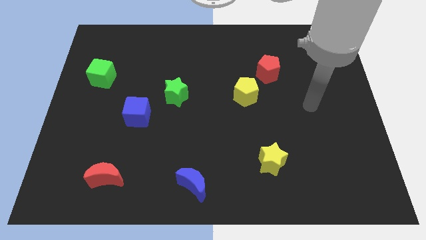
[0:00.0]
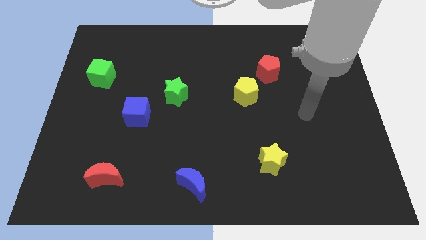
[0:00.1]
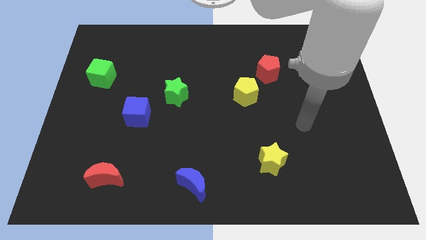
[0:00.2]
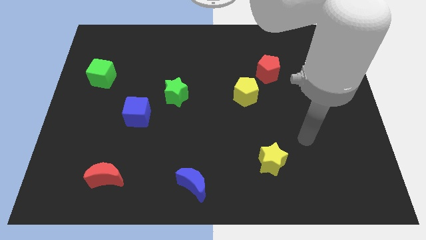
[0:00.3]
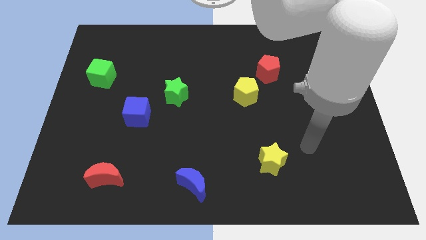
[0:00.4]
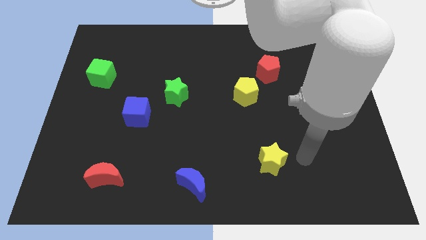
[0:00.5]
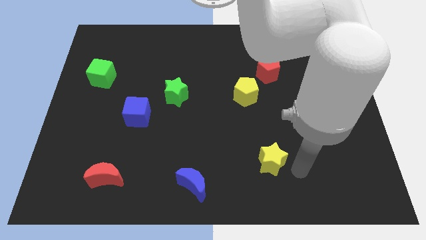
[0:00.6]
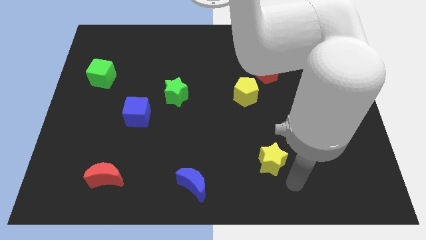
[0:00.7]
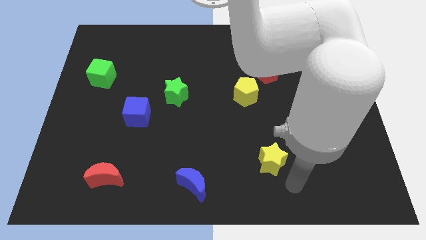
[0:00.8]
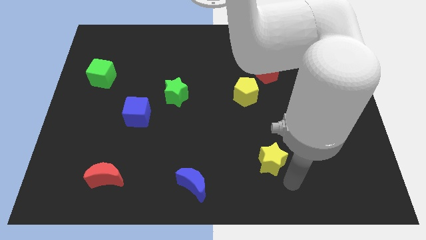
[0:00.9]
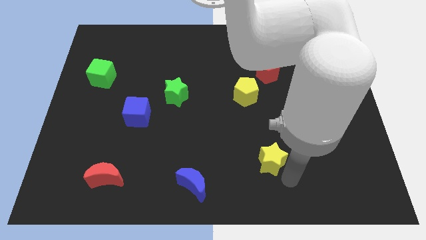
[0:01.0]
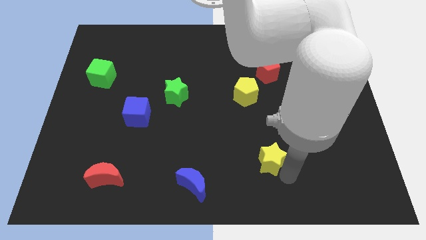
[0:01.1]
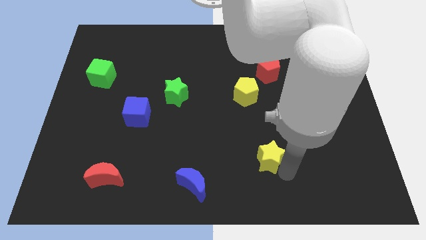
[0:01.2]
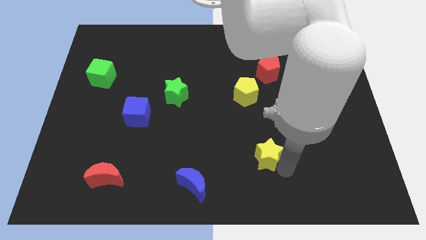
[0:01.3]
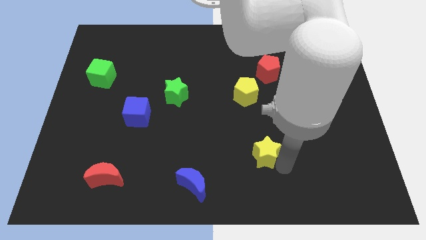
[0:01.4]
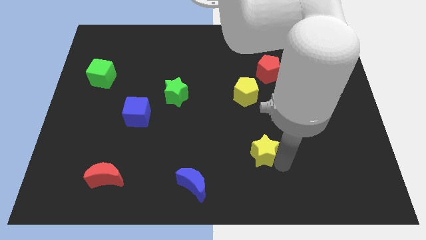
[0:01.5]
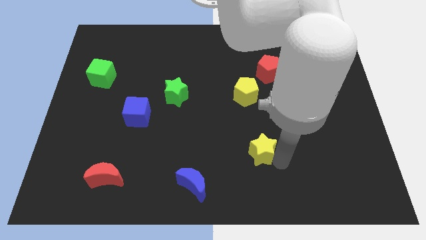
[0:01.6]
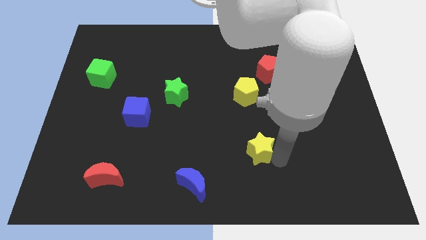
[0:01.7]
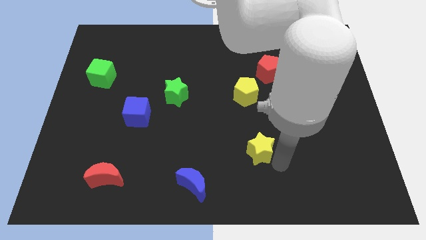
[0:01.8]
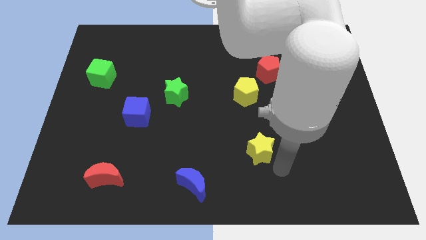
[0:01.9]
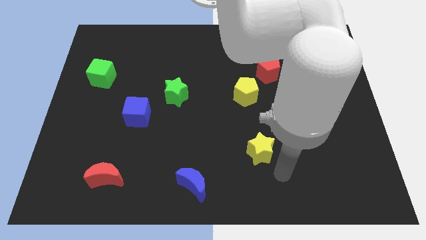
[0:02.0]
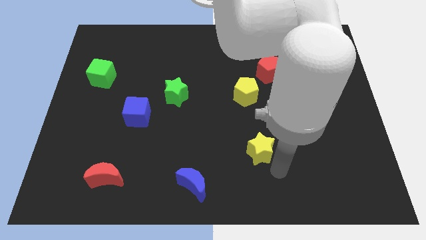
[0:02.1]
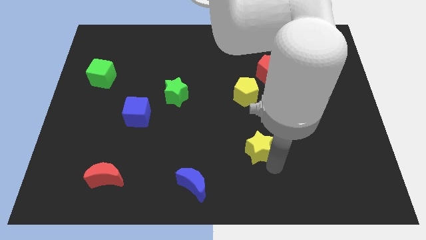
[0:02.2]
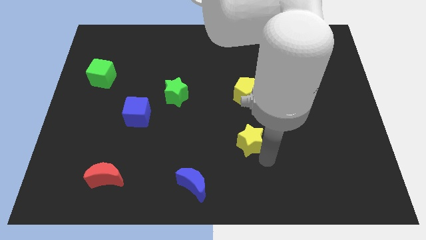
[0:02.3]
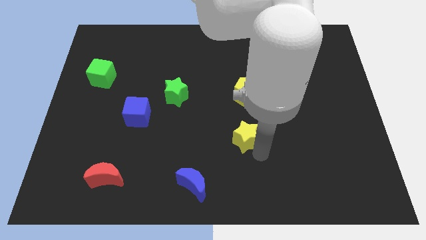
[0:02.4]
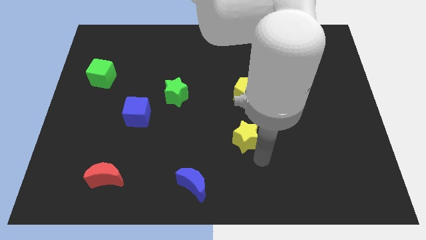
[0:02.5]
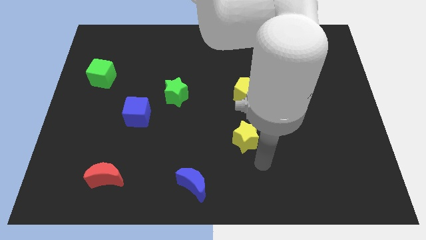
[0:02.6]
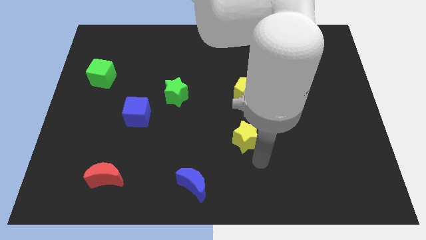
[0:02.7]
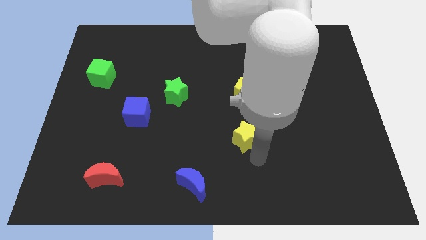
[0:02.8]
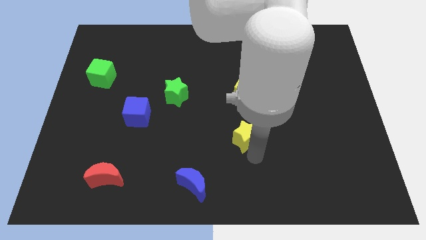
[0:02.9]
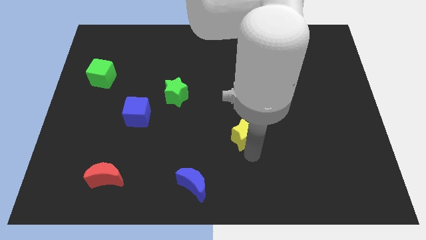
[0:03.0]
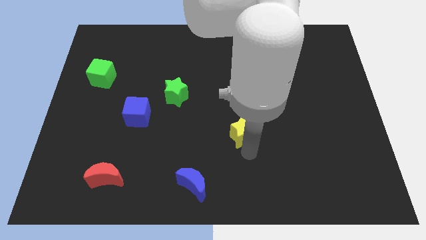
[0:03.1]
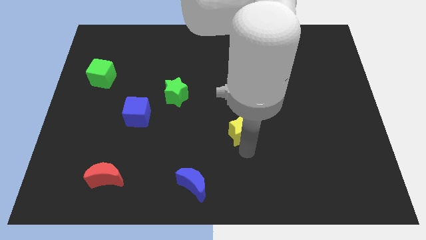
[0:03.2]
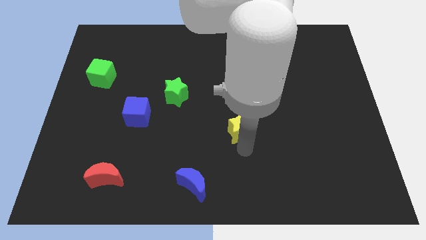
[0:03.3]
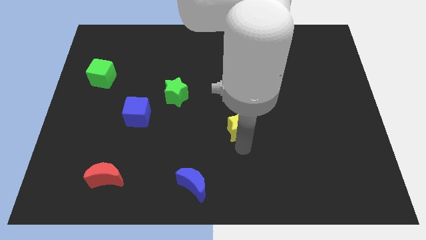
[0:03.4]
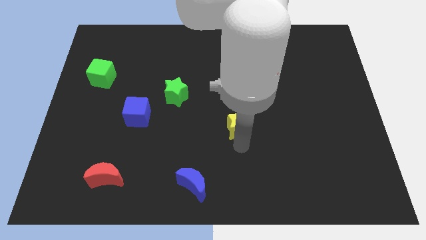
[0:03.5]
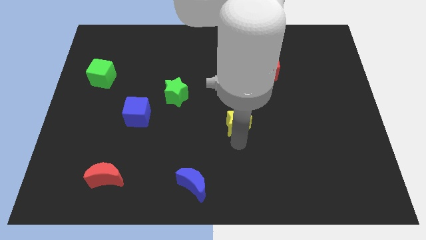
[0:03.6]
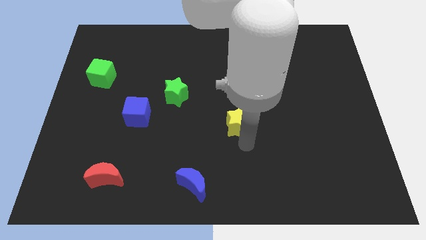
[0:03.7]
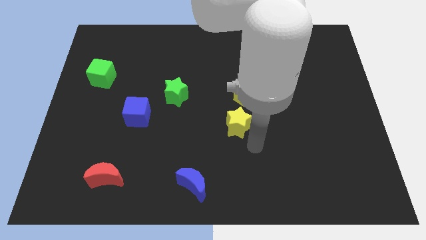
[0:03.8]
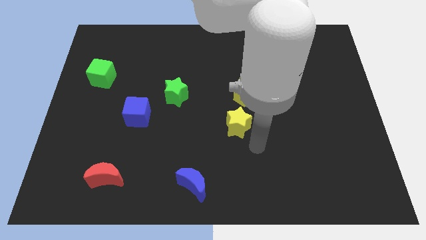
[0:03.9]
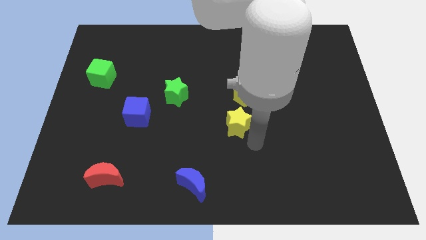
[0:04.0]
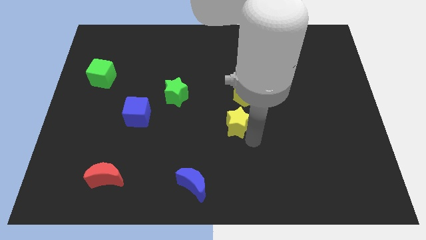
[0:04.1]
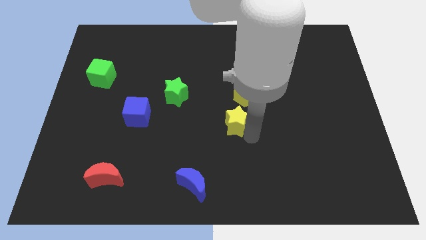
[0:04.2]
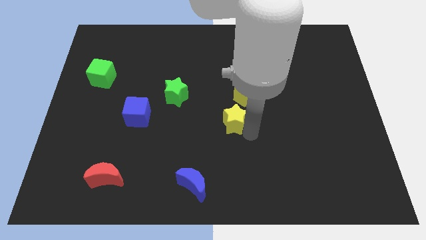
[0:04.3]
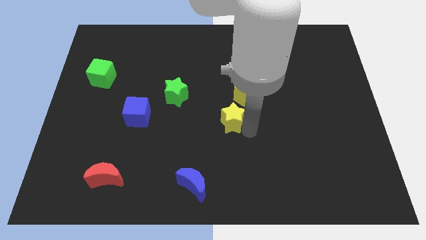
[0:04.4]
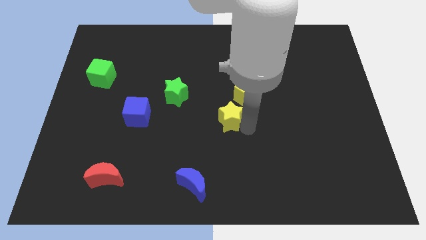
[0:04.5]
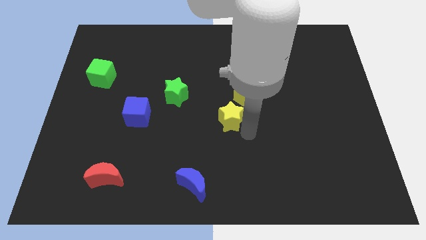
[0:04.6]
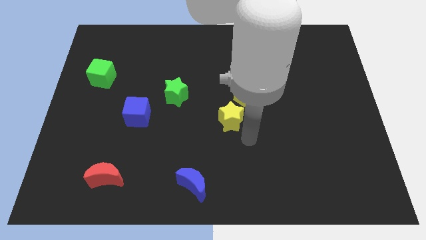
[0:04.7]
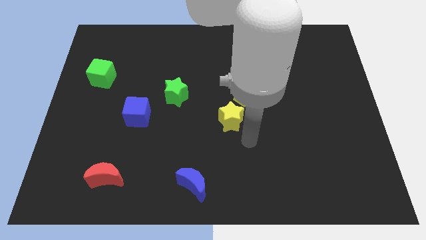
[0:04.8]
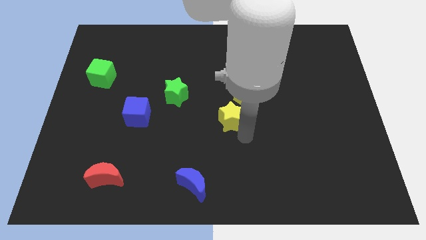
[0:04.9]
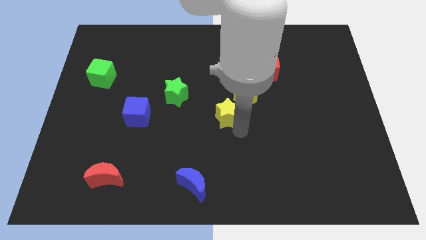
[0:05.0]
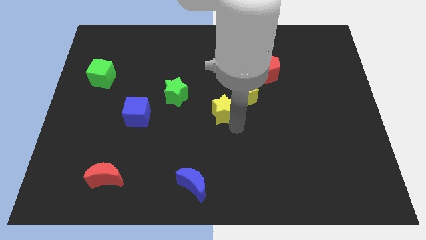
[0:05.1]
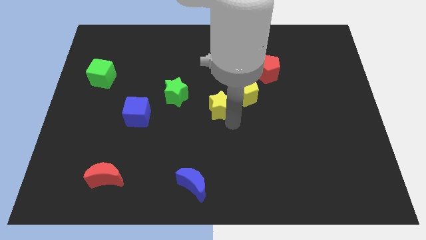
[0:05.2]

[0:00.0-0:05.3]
slide the yellow star left of the yellow pentagon

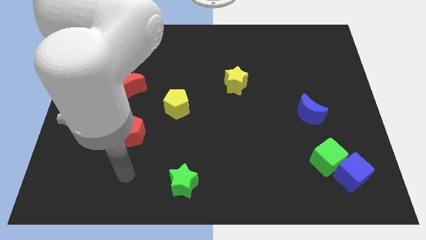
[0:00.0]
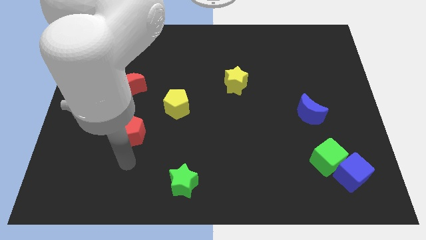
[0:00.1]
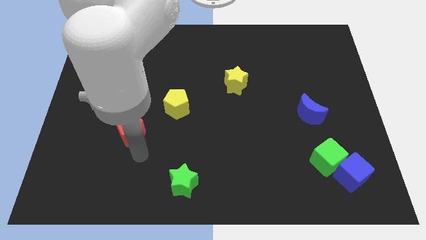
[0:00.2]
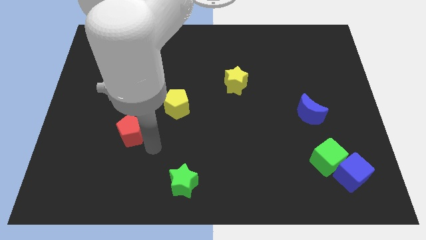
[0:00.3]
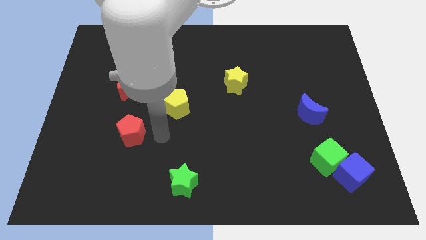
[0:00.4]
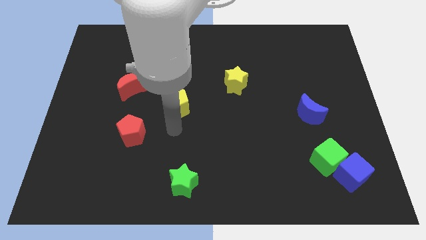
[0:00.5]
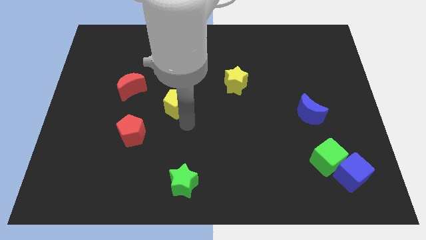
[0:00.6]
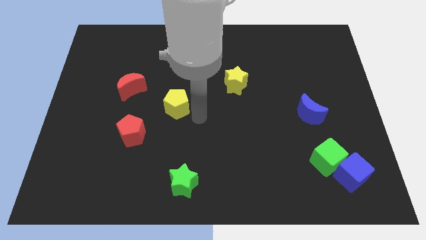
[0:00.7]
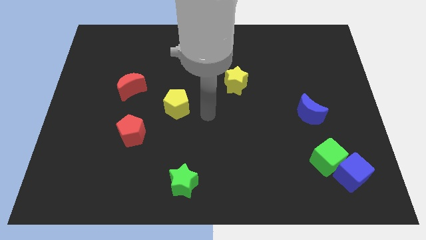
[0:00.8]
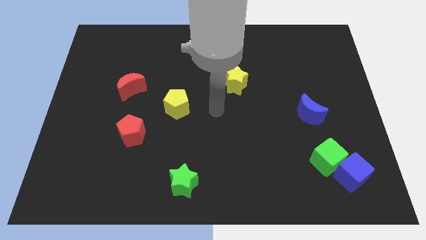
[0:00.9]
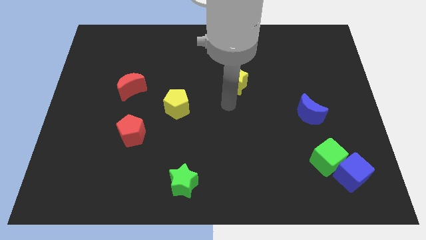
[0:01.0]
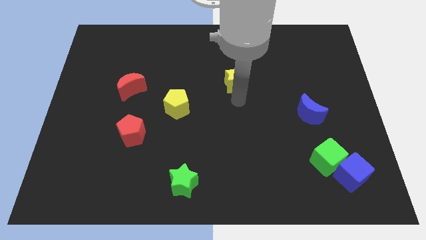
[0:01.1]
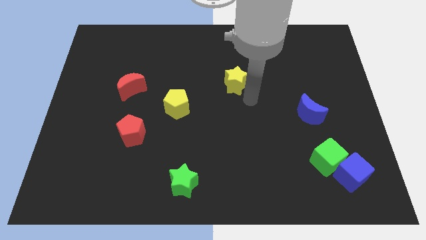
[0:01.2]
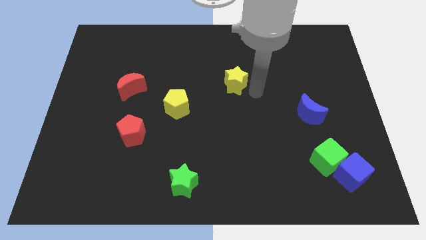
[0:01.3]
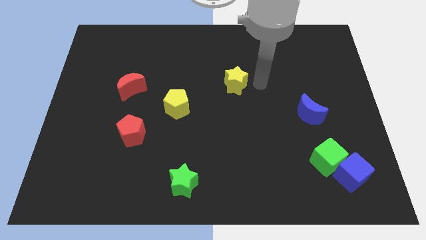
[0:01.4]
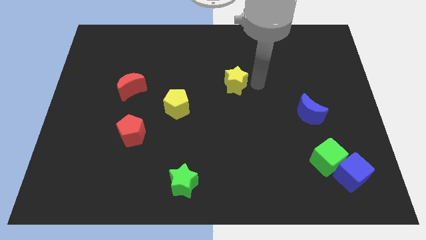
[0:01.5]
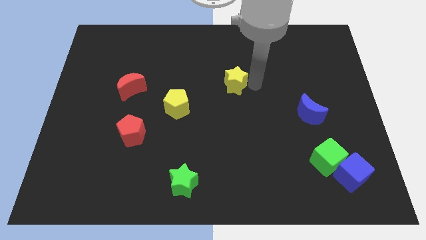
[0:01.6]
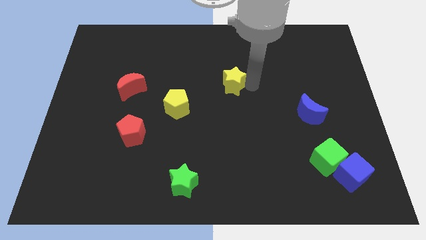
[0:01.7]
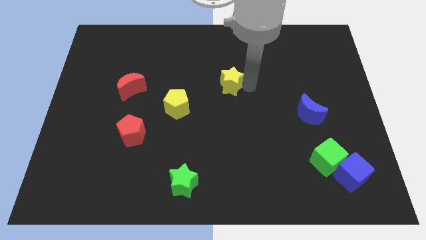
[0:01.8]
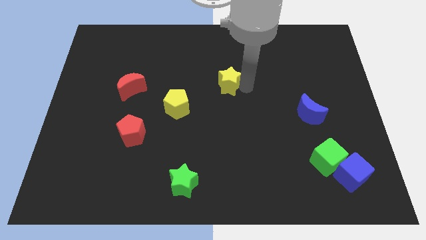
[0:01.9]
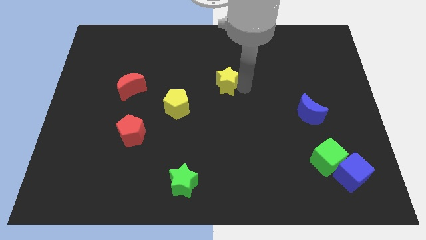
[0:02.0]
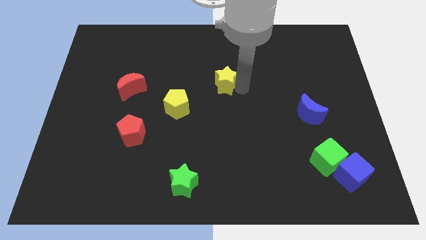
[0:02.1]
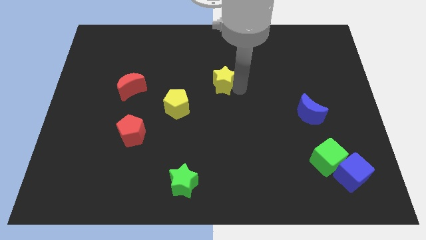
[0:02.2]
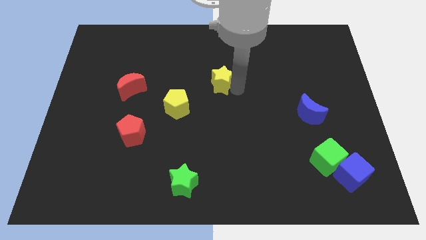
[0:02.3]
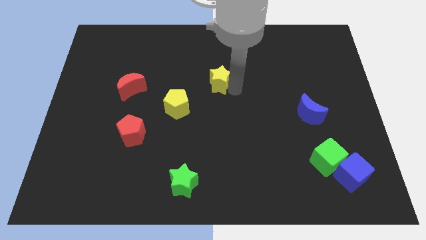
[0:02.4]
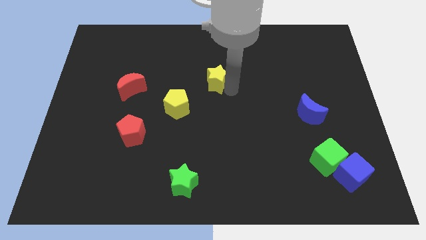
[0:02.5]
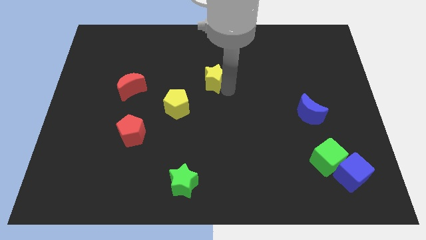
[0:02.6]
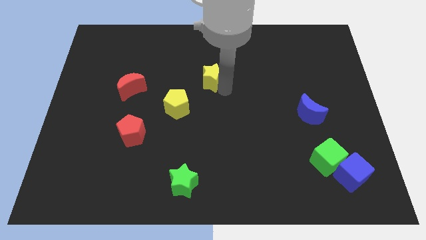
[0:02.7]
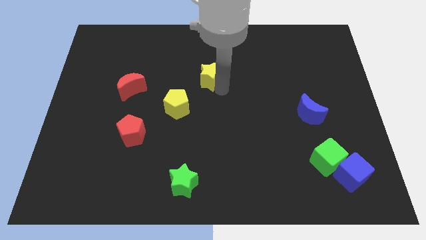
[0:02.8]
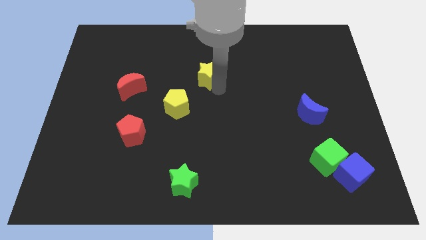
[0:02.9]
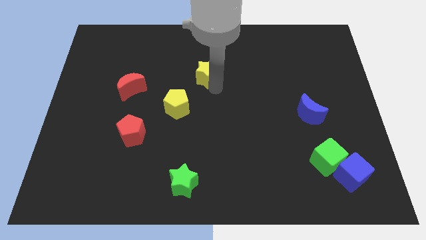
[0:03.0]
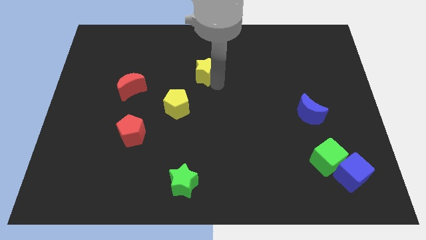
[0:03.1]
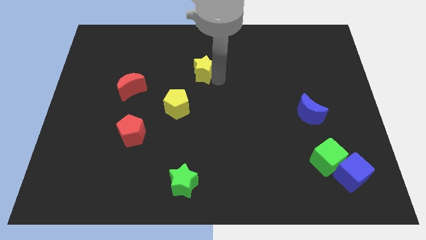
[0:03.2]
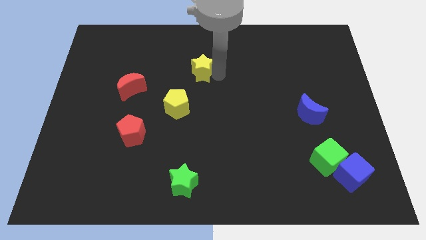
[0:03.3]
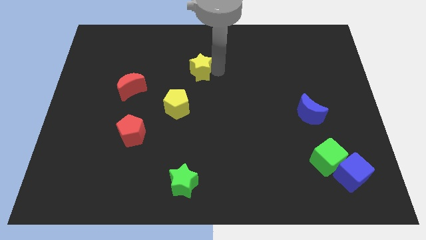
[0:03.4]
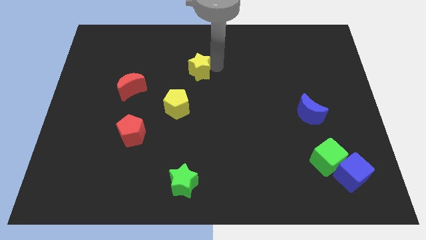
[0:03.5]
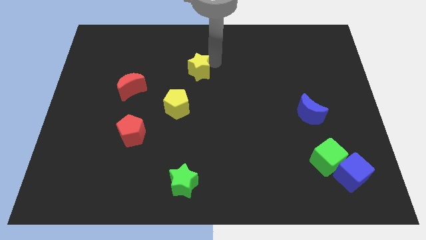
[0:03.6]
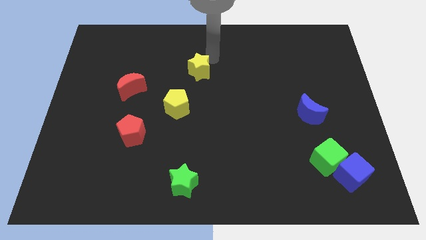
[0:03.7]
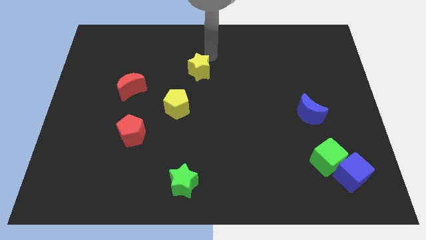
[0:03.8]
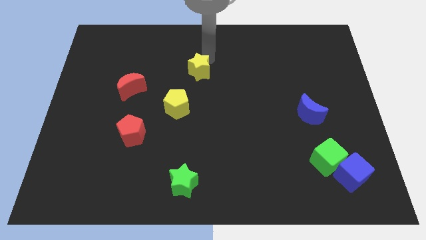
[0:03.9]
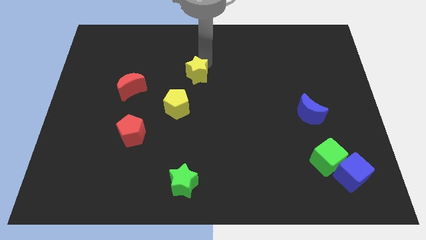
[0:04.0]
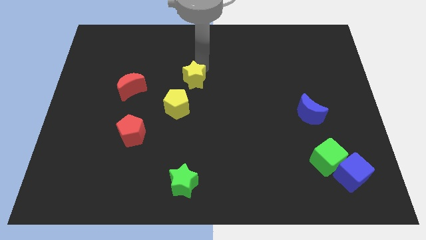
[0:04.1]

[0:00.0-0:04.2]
slide the yellow star right of the red moon
